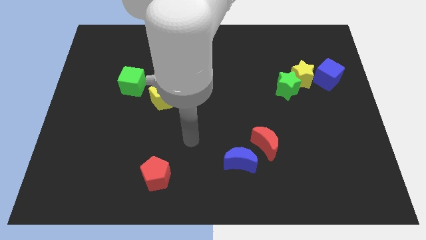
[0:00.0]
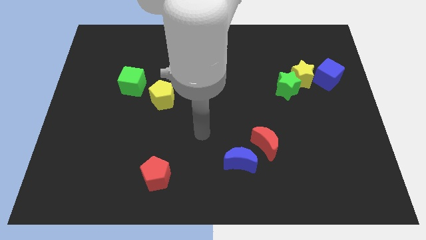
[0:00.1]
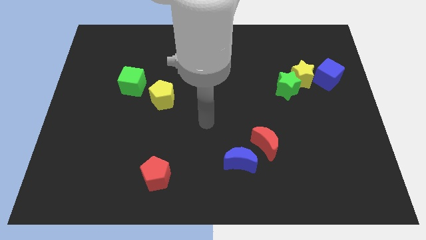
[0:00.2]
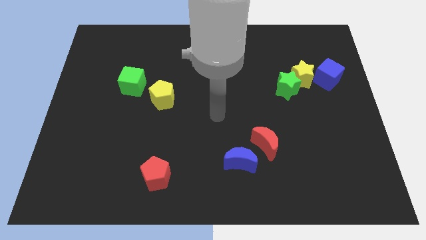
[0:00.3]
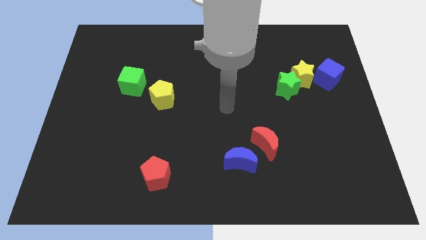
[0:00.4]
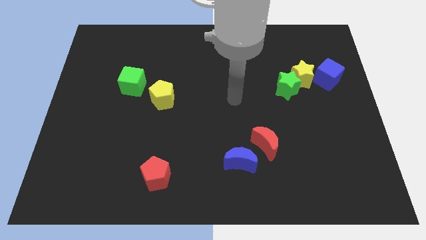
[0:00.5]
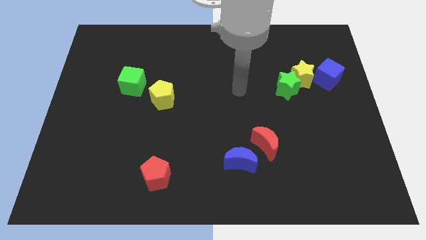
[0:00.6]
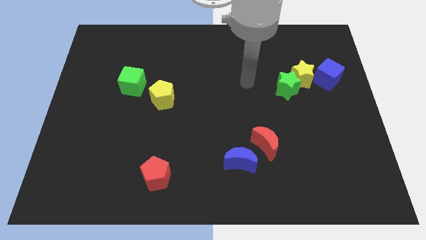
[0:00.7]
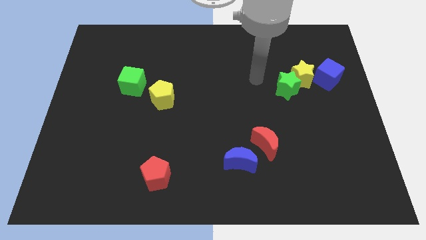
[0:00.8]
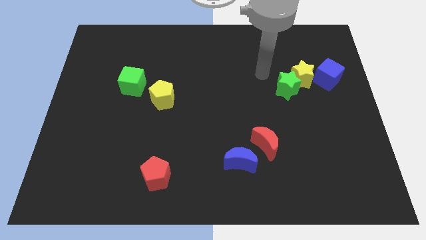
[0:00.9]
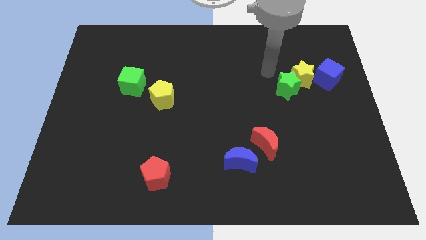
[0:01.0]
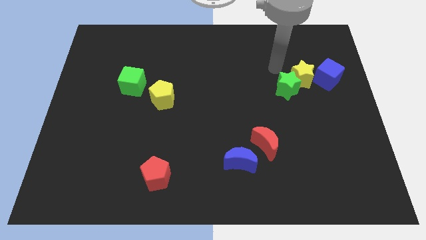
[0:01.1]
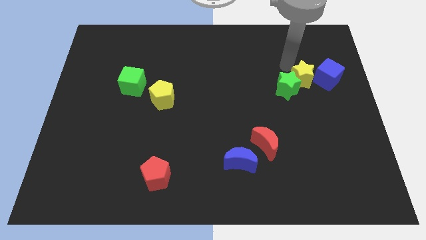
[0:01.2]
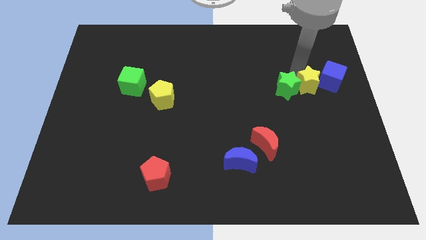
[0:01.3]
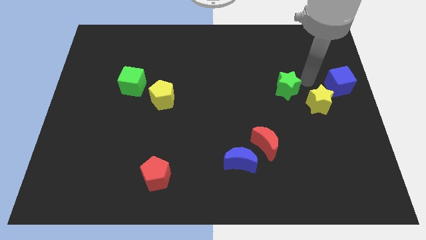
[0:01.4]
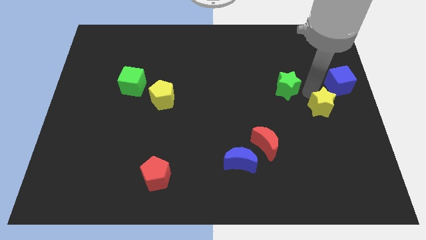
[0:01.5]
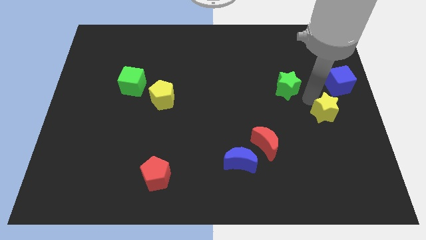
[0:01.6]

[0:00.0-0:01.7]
move the green star away from the yellow star

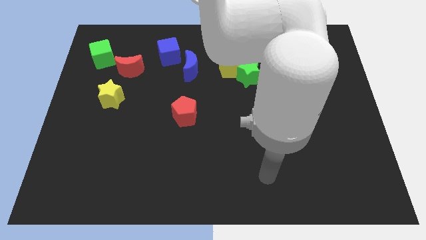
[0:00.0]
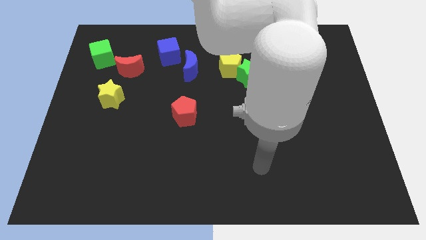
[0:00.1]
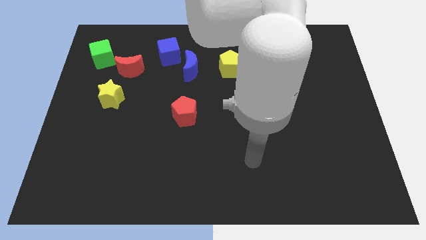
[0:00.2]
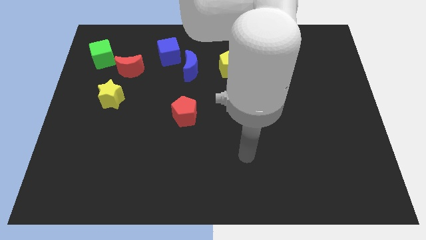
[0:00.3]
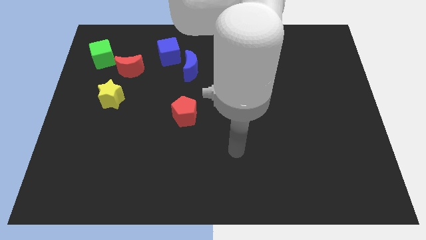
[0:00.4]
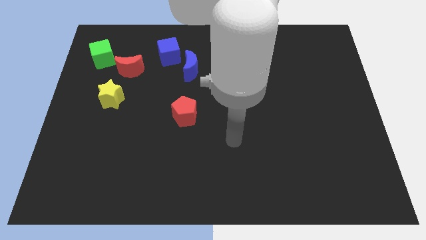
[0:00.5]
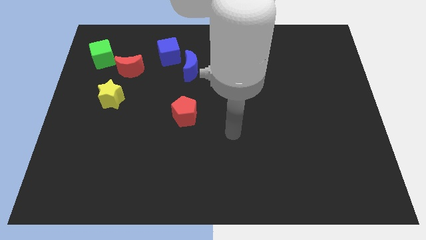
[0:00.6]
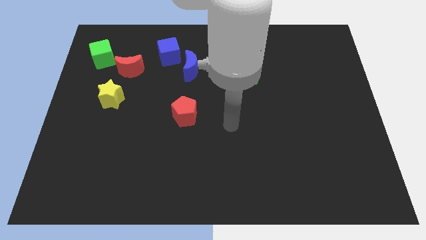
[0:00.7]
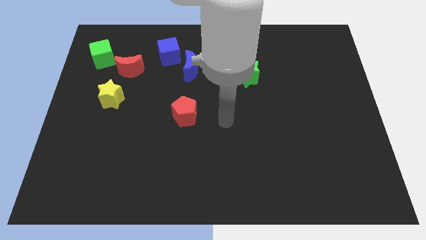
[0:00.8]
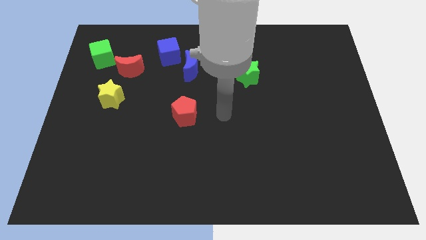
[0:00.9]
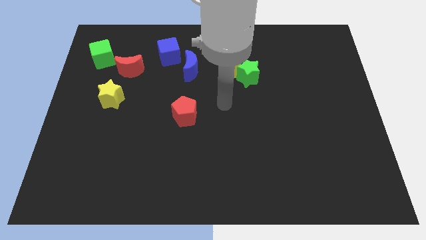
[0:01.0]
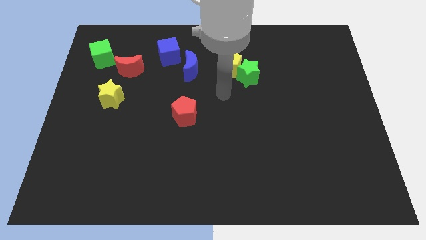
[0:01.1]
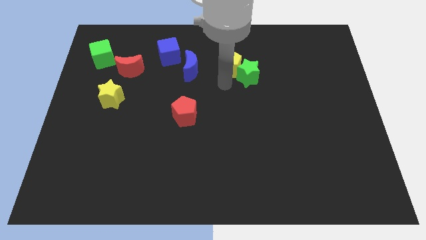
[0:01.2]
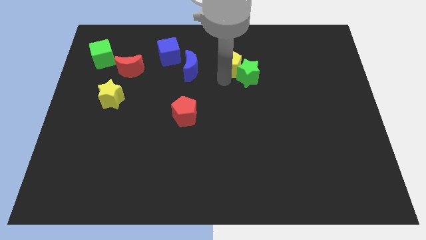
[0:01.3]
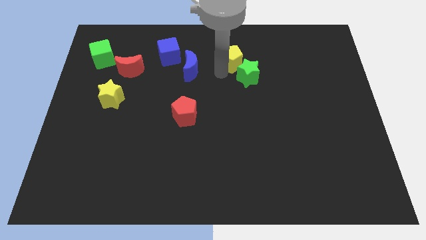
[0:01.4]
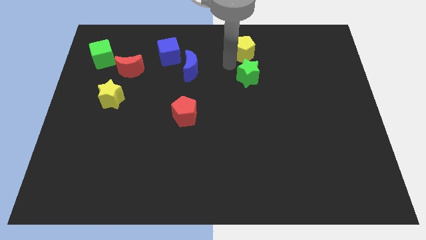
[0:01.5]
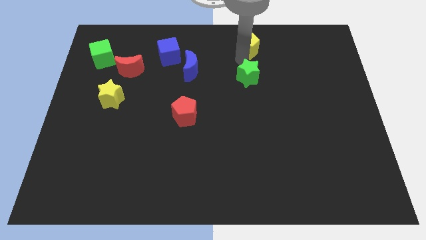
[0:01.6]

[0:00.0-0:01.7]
pull the green star apart from the yellow pentagon

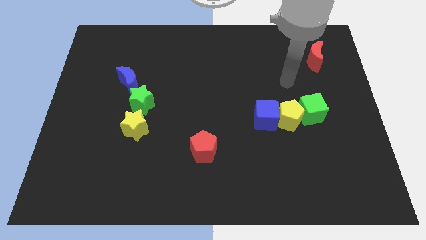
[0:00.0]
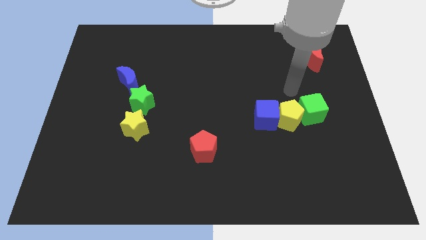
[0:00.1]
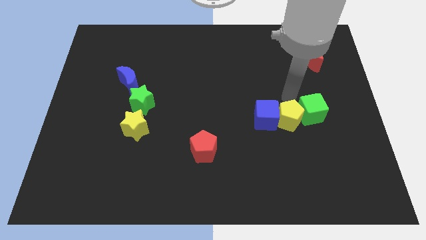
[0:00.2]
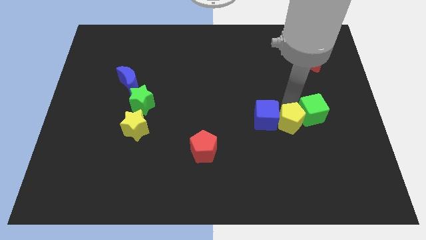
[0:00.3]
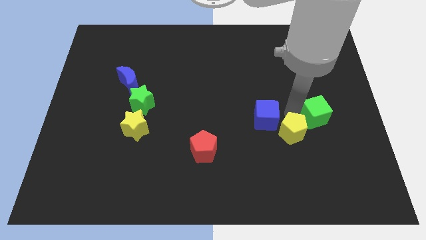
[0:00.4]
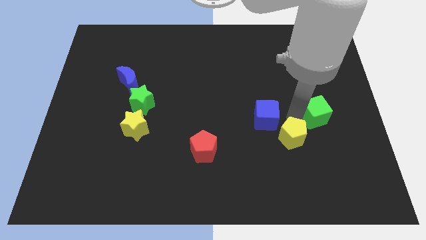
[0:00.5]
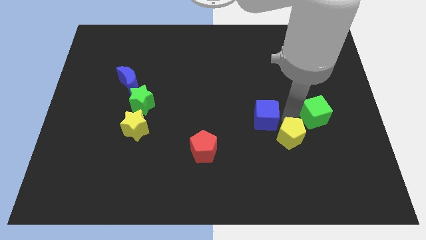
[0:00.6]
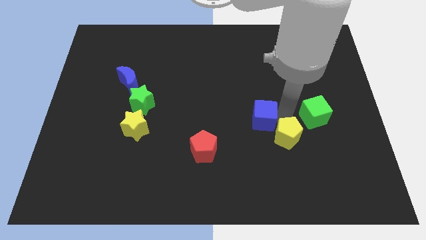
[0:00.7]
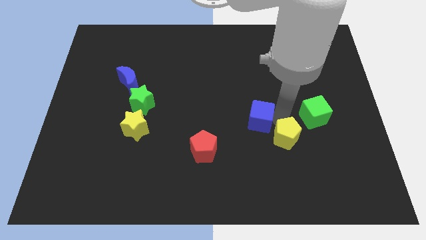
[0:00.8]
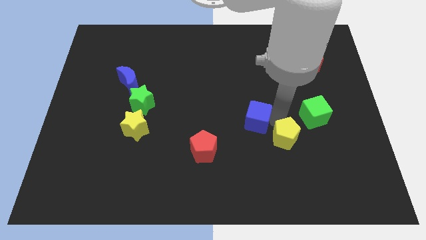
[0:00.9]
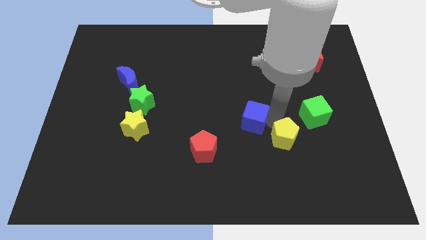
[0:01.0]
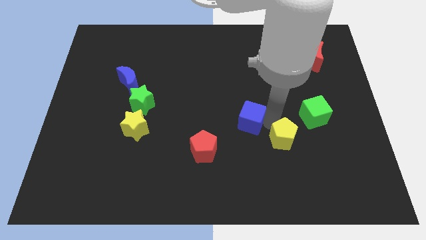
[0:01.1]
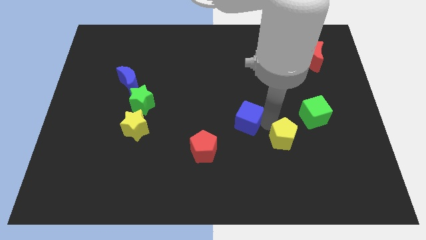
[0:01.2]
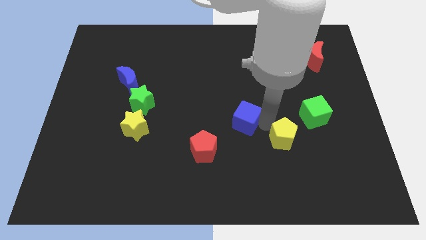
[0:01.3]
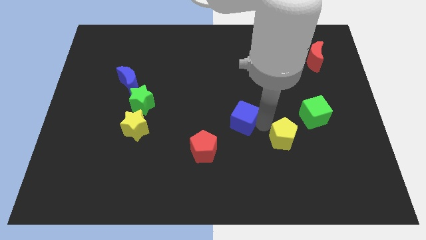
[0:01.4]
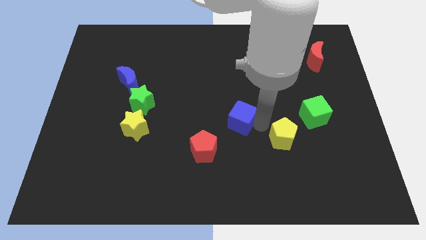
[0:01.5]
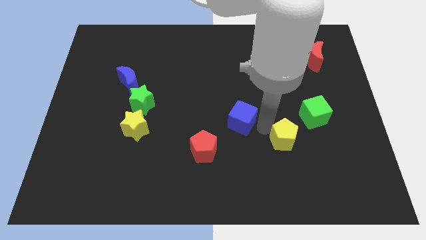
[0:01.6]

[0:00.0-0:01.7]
pull the blue cube apart from the yellow pentagon

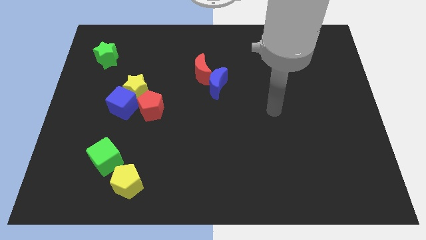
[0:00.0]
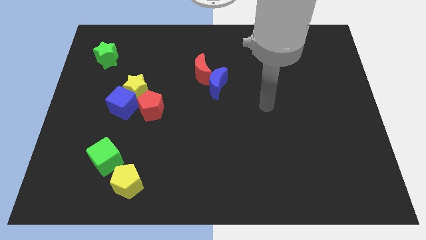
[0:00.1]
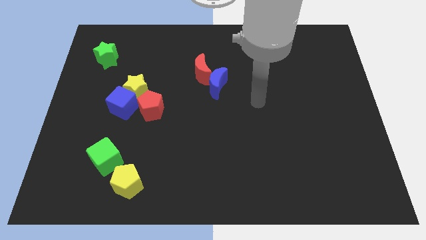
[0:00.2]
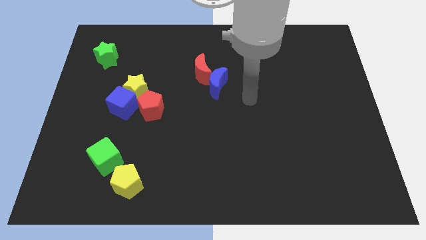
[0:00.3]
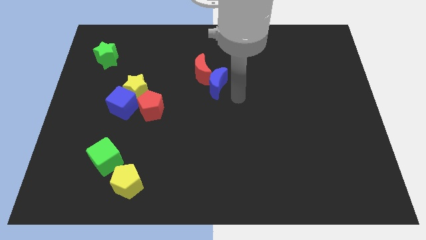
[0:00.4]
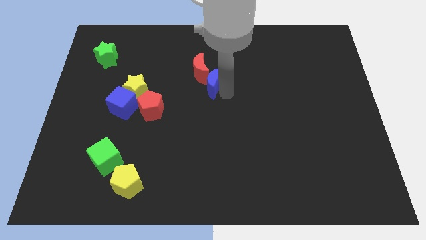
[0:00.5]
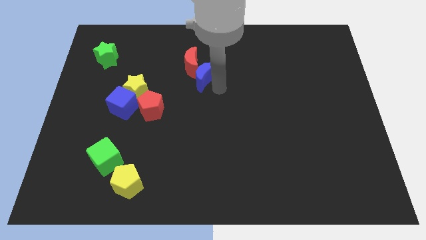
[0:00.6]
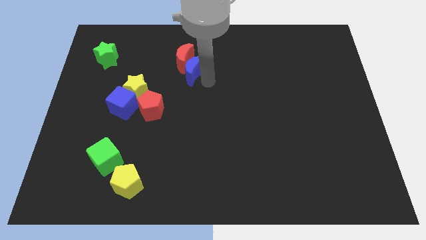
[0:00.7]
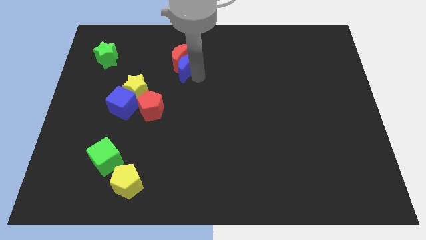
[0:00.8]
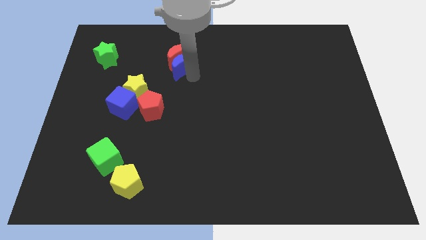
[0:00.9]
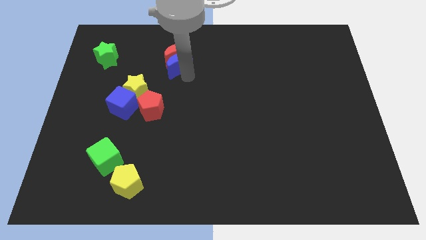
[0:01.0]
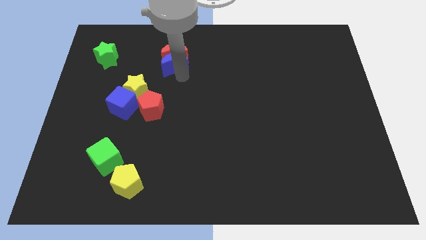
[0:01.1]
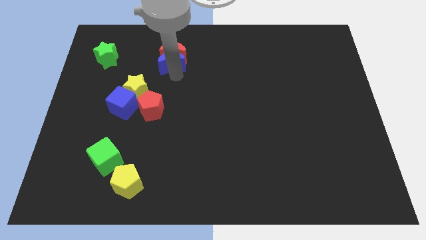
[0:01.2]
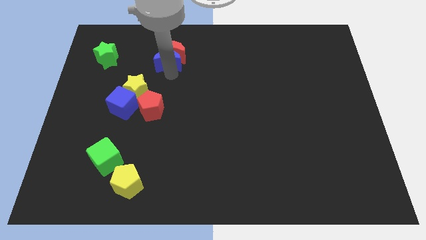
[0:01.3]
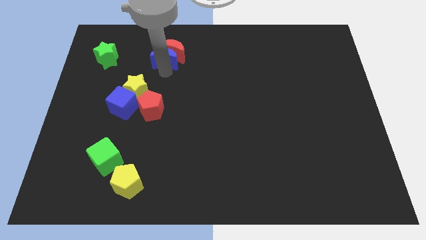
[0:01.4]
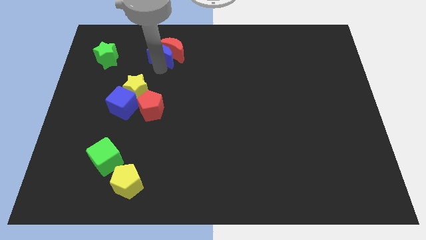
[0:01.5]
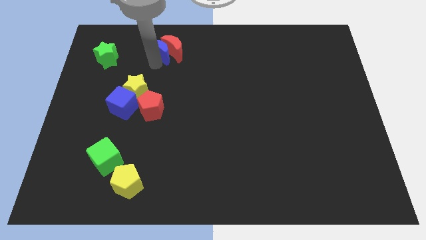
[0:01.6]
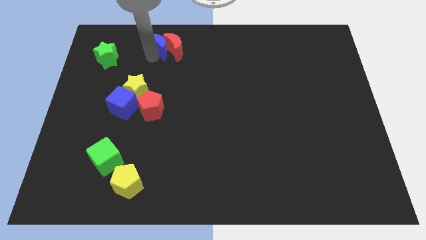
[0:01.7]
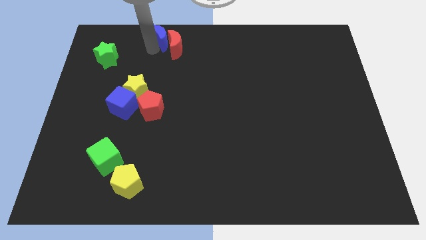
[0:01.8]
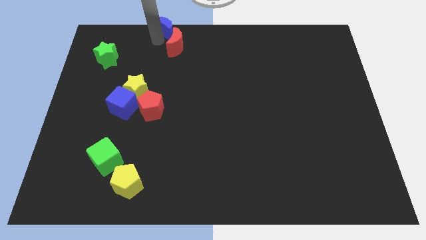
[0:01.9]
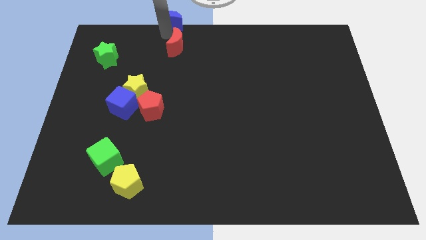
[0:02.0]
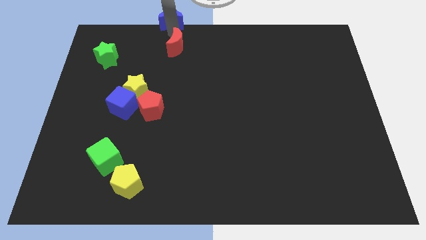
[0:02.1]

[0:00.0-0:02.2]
separate the red moon from the blue moon

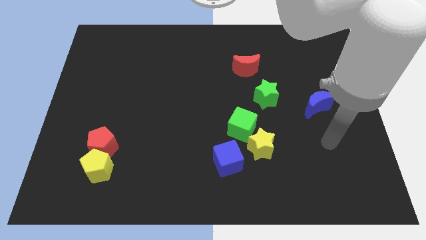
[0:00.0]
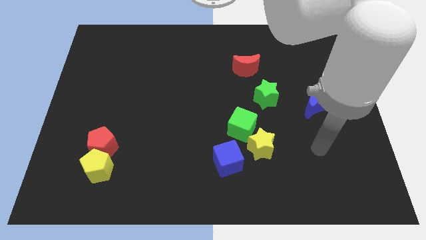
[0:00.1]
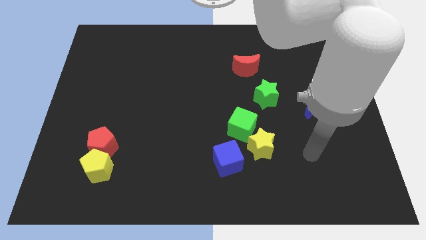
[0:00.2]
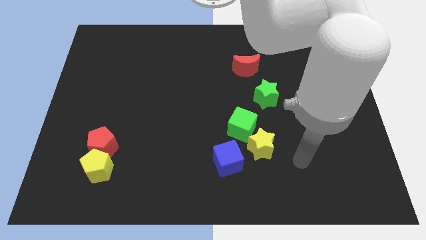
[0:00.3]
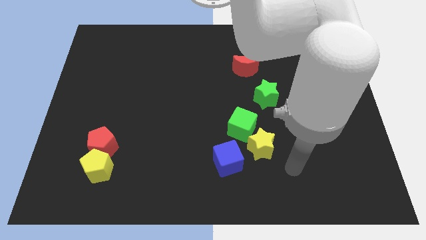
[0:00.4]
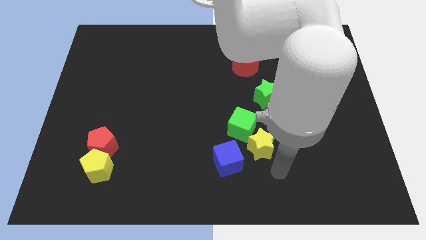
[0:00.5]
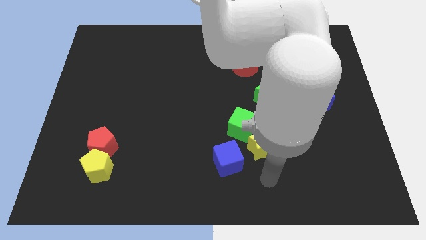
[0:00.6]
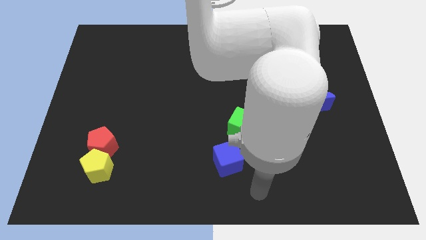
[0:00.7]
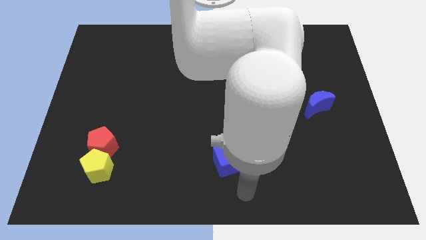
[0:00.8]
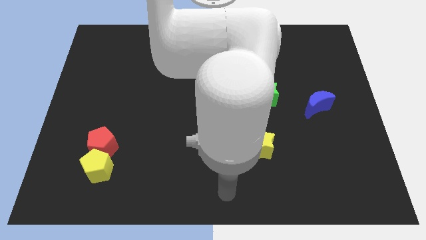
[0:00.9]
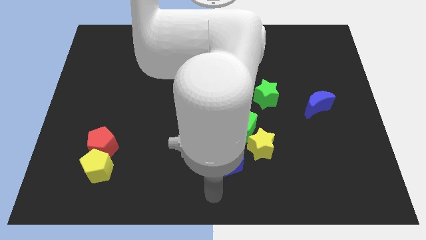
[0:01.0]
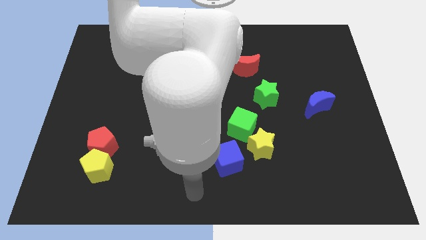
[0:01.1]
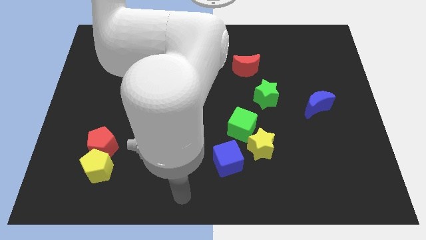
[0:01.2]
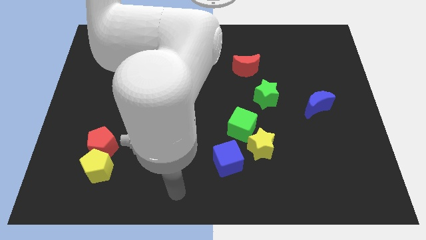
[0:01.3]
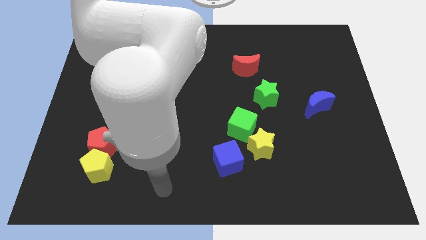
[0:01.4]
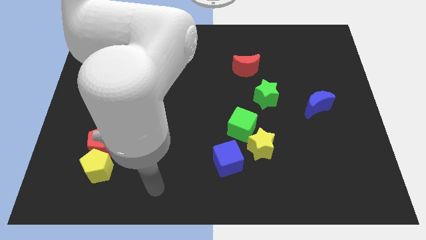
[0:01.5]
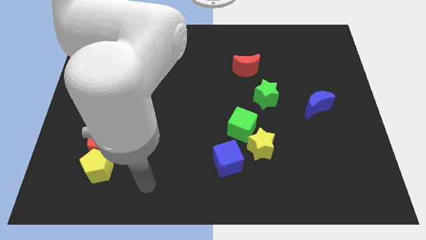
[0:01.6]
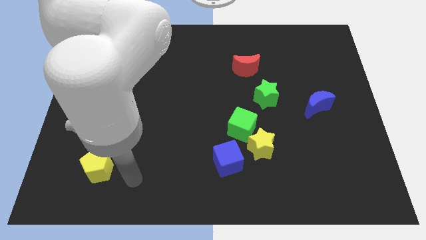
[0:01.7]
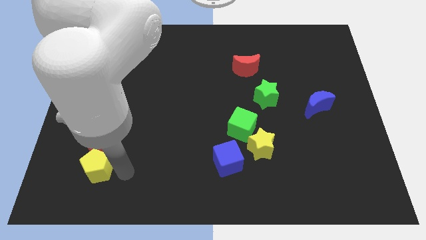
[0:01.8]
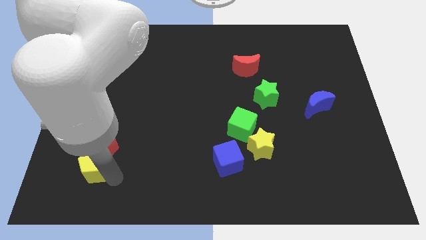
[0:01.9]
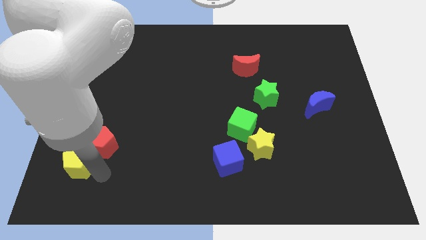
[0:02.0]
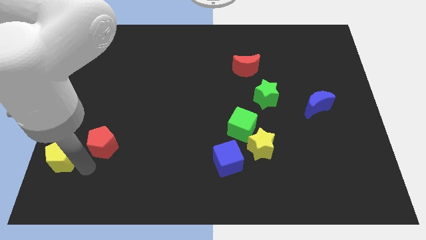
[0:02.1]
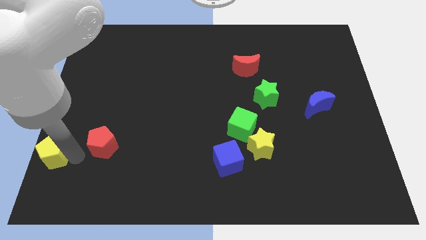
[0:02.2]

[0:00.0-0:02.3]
move the red pentagon away from the yellow pentagon
